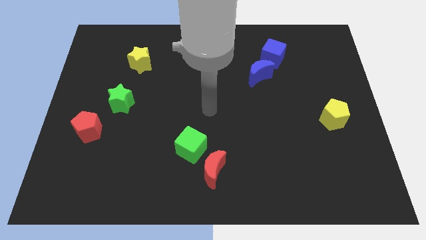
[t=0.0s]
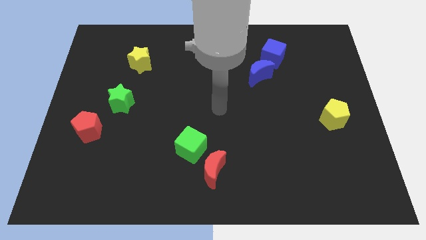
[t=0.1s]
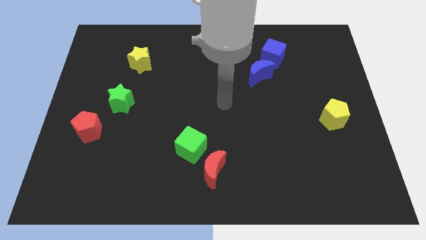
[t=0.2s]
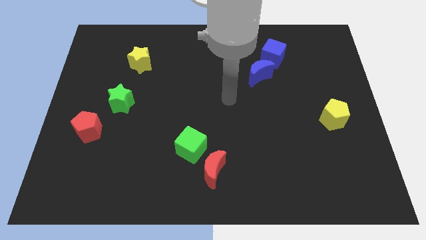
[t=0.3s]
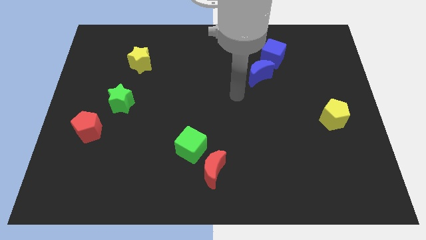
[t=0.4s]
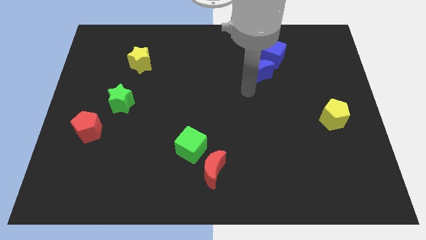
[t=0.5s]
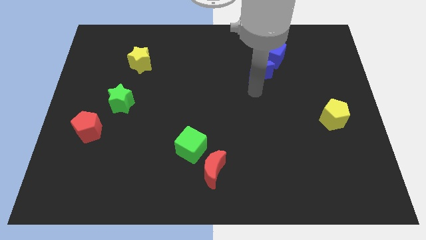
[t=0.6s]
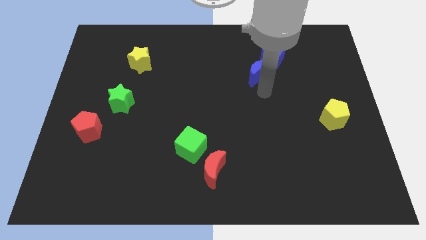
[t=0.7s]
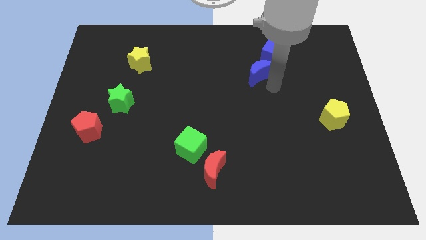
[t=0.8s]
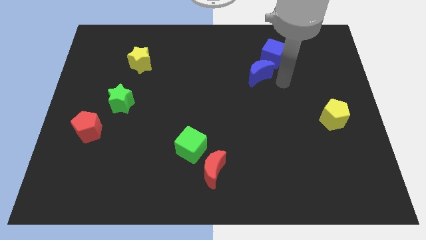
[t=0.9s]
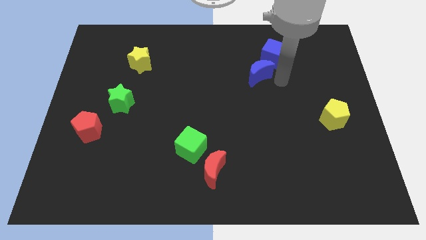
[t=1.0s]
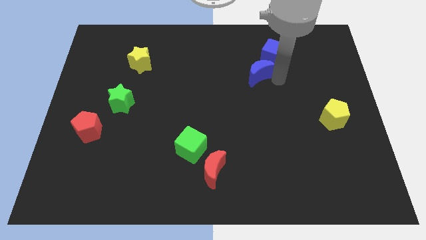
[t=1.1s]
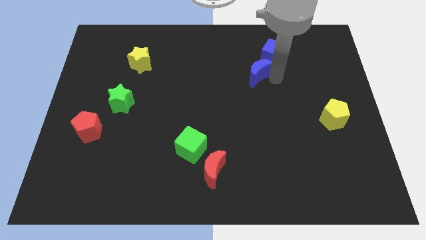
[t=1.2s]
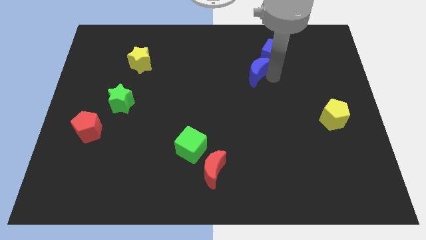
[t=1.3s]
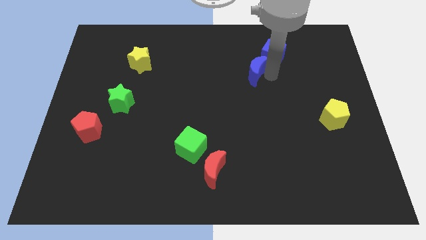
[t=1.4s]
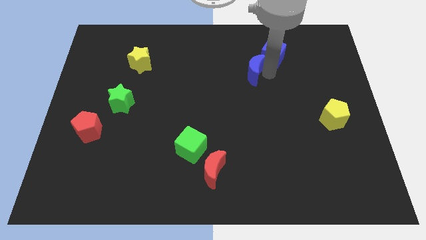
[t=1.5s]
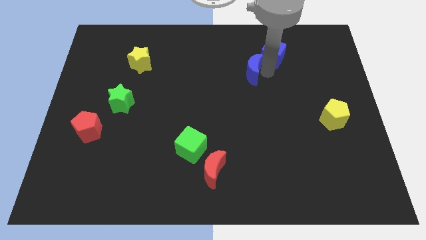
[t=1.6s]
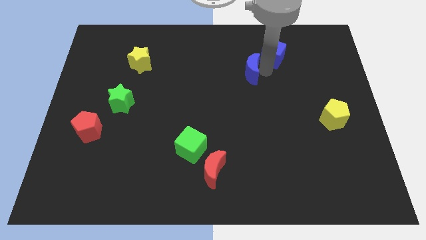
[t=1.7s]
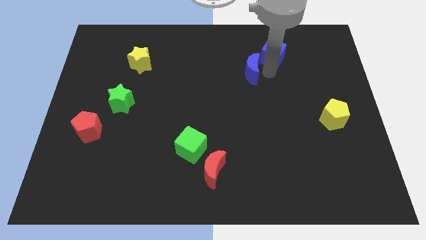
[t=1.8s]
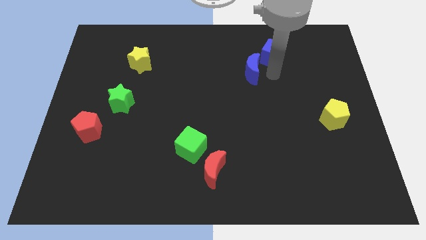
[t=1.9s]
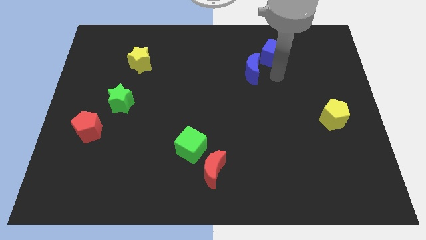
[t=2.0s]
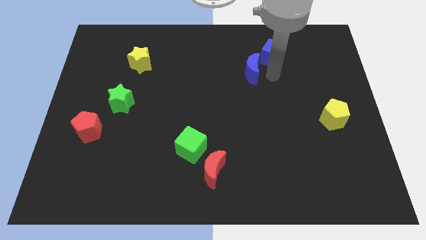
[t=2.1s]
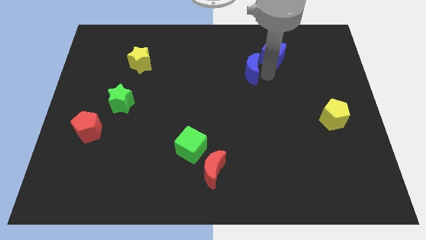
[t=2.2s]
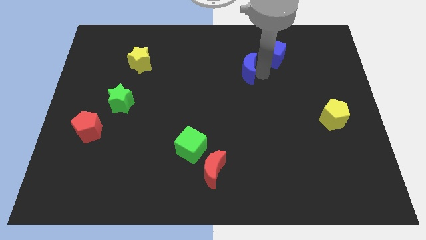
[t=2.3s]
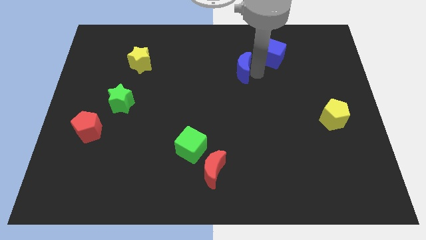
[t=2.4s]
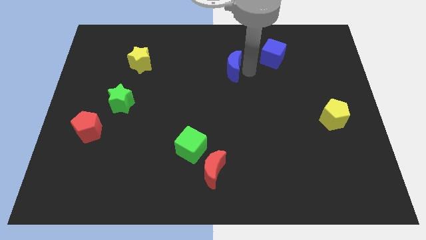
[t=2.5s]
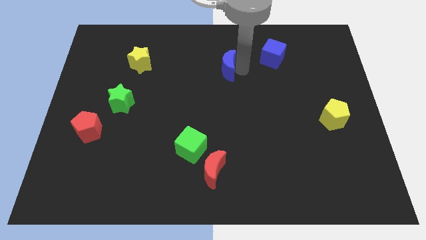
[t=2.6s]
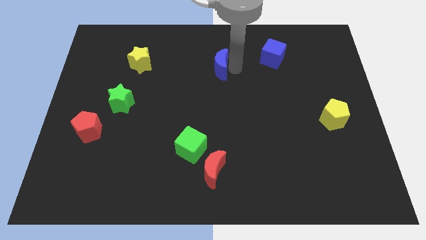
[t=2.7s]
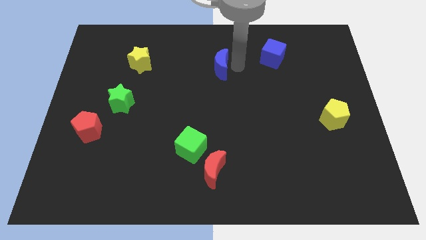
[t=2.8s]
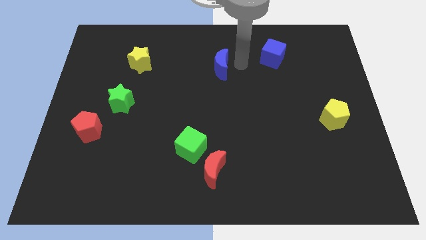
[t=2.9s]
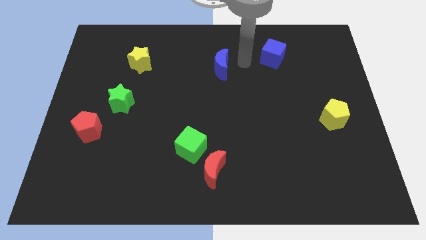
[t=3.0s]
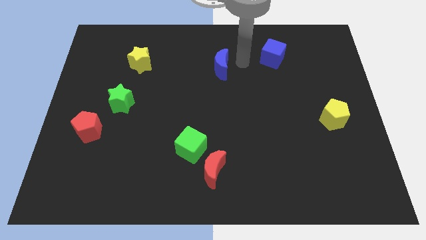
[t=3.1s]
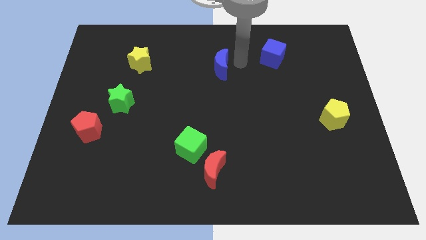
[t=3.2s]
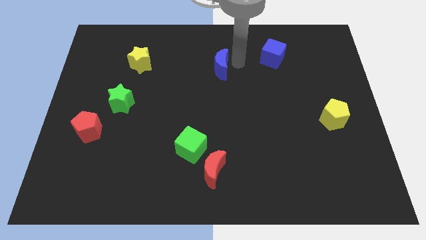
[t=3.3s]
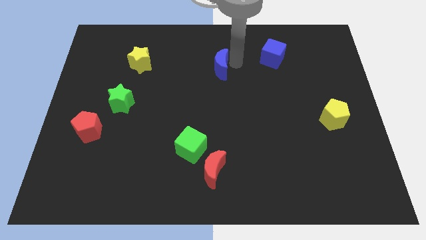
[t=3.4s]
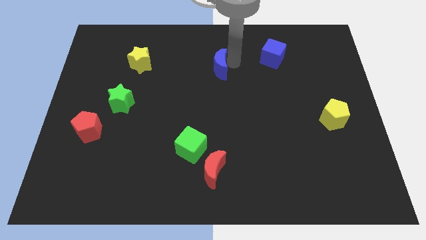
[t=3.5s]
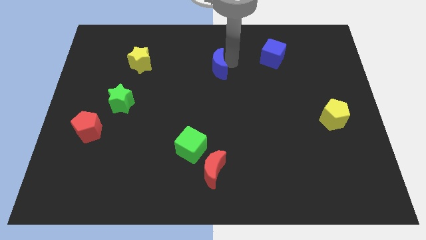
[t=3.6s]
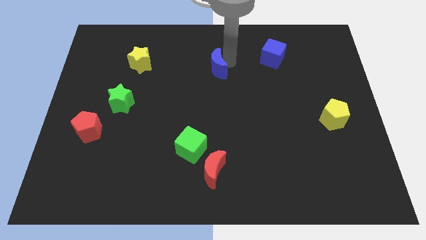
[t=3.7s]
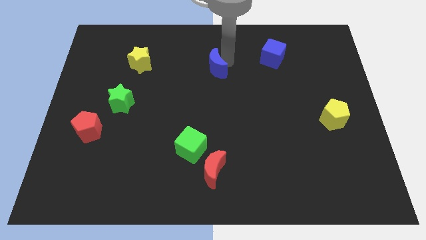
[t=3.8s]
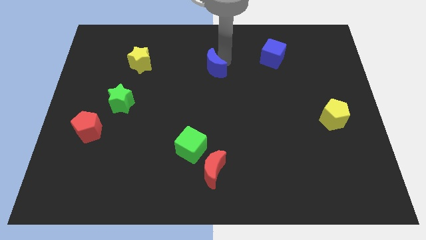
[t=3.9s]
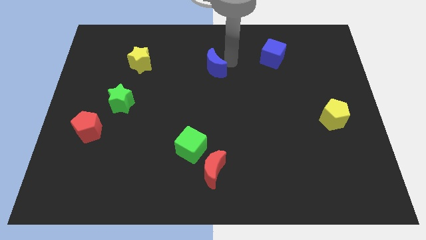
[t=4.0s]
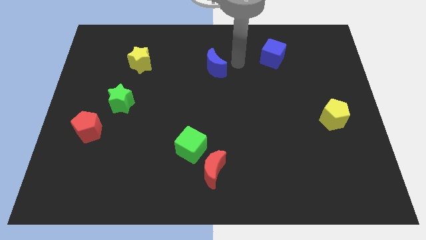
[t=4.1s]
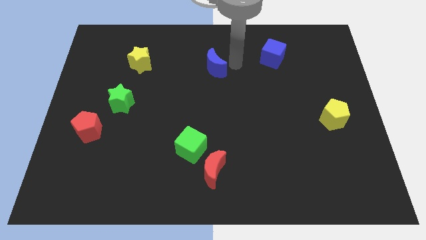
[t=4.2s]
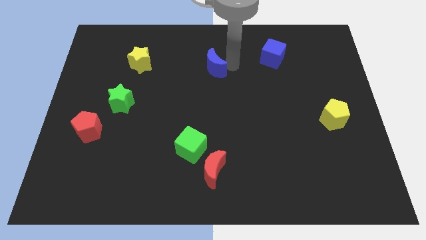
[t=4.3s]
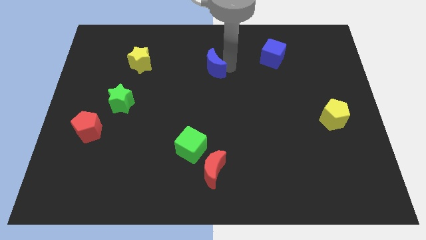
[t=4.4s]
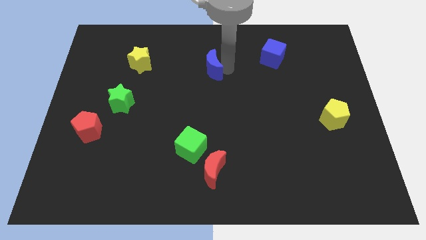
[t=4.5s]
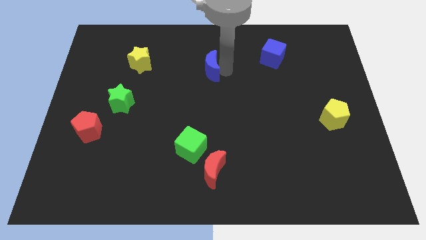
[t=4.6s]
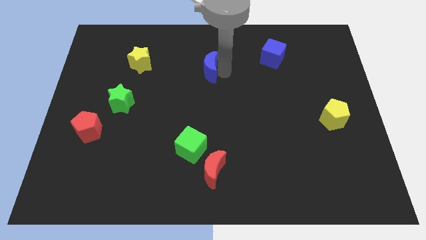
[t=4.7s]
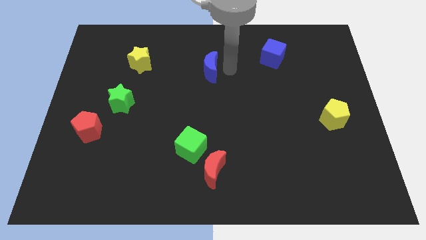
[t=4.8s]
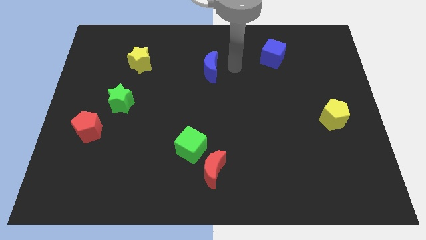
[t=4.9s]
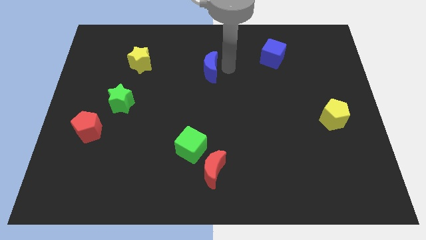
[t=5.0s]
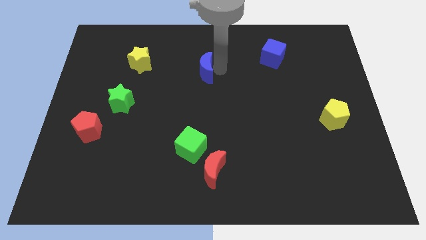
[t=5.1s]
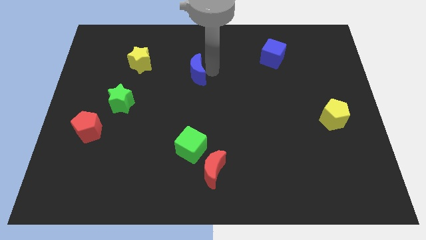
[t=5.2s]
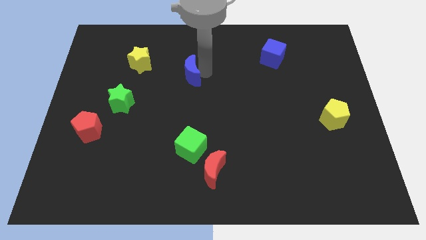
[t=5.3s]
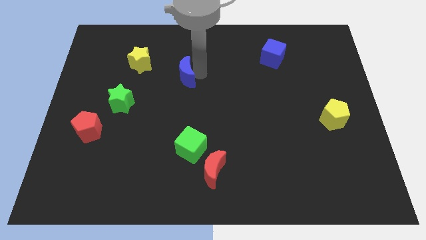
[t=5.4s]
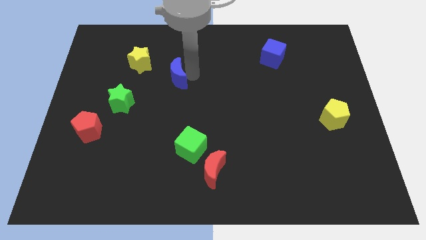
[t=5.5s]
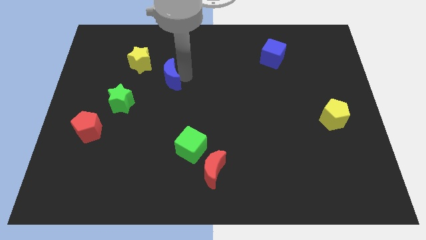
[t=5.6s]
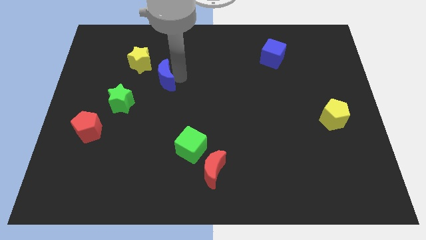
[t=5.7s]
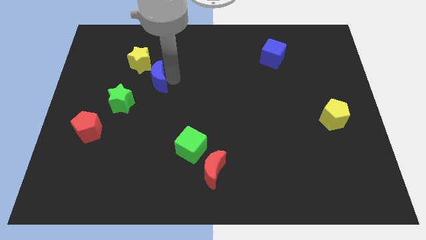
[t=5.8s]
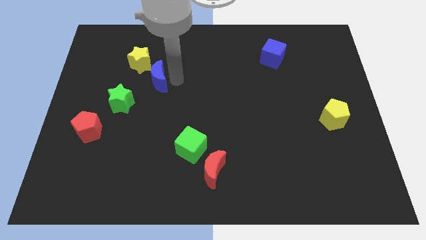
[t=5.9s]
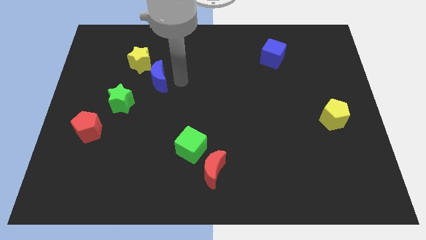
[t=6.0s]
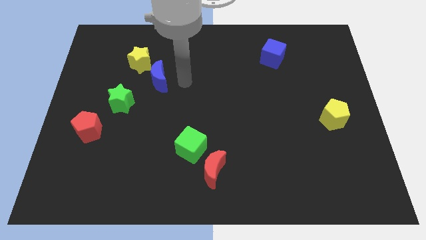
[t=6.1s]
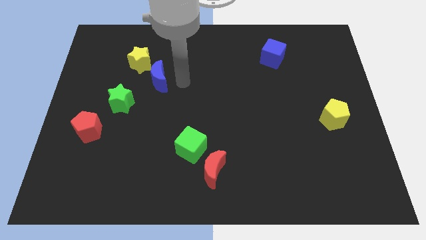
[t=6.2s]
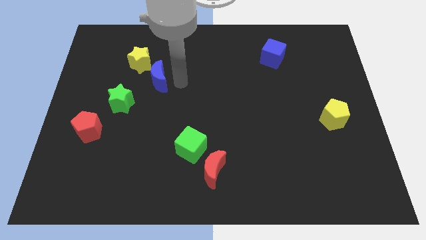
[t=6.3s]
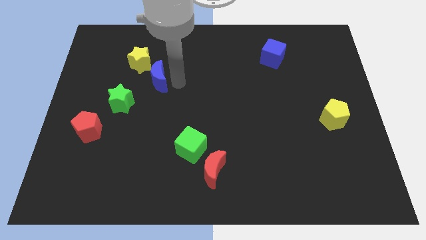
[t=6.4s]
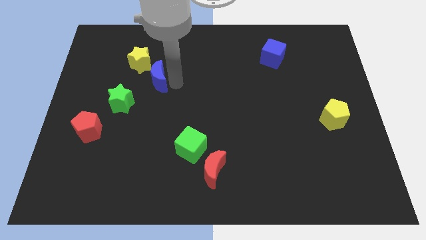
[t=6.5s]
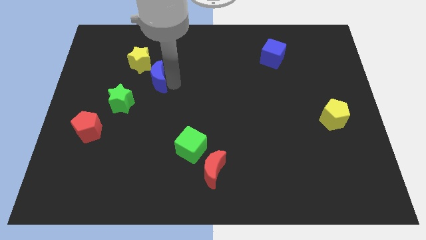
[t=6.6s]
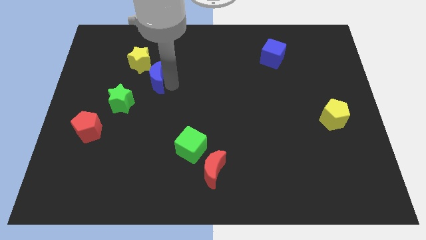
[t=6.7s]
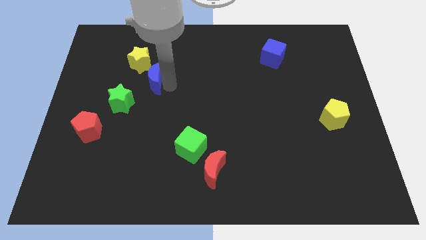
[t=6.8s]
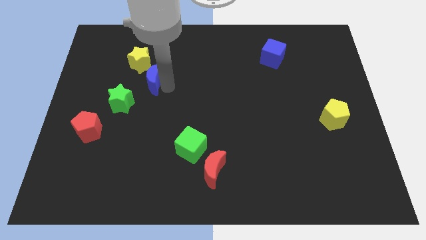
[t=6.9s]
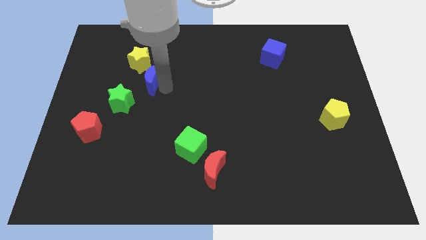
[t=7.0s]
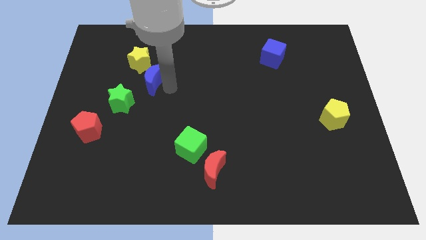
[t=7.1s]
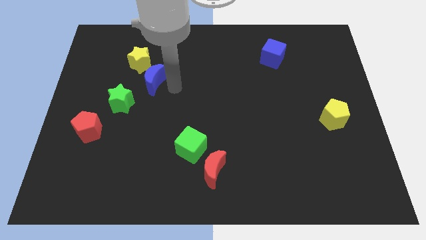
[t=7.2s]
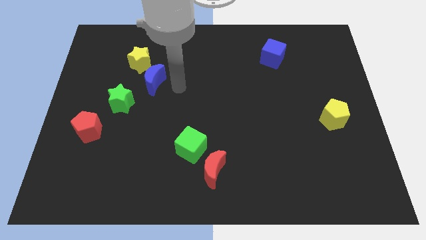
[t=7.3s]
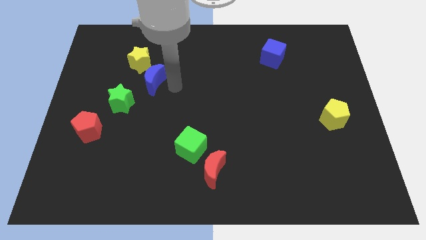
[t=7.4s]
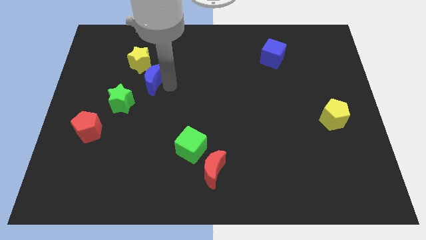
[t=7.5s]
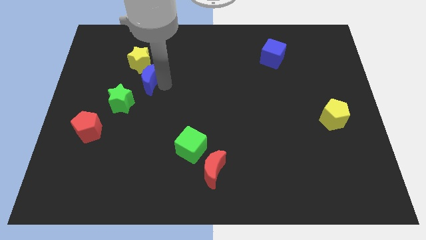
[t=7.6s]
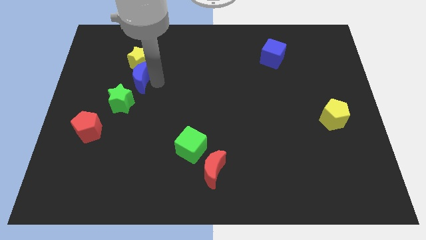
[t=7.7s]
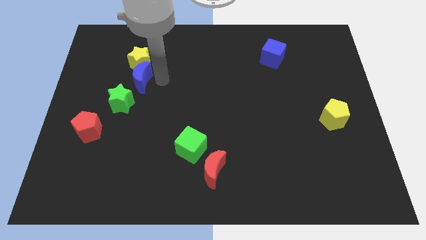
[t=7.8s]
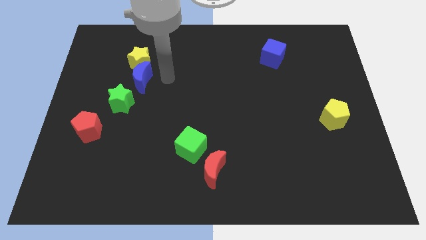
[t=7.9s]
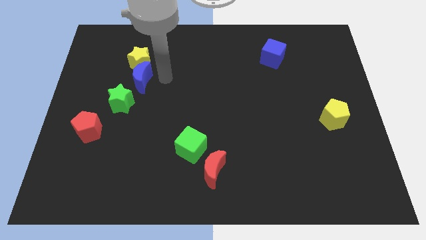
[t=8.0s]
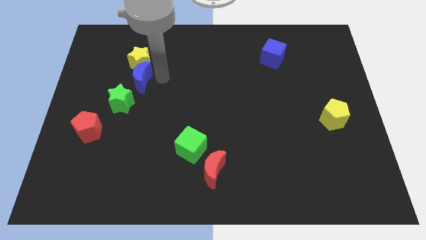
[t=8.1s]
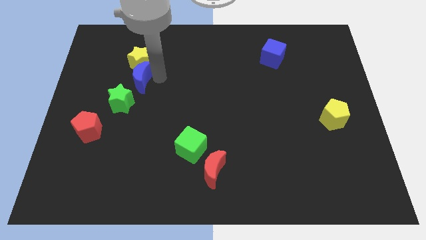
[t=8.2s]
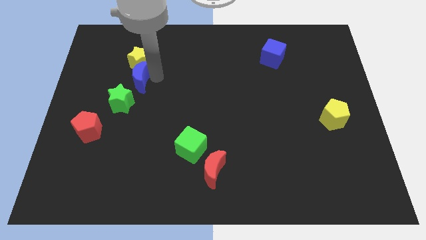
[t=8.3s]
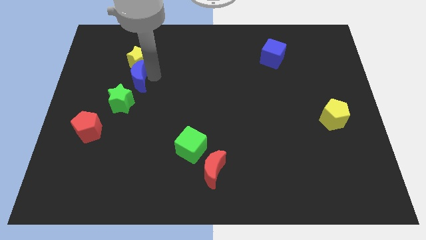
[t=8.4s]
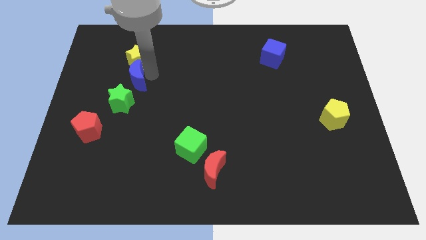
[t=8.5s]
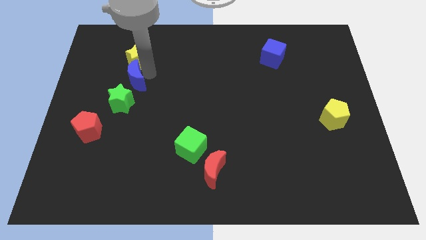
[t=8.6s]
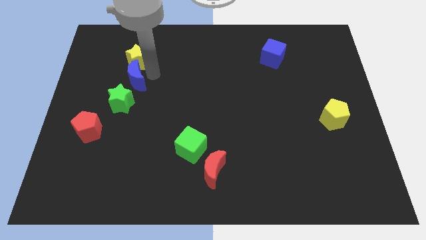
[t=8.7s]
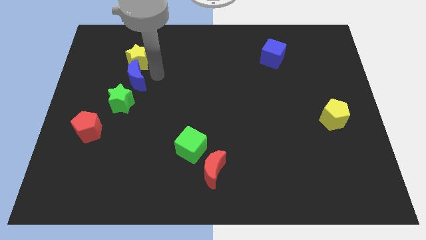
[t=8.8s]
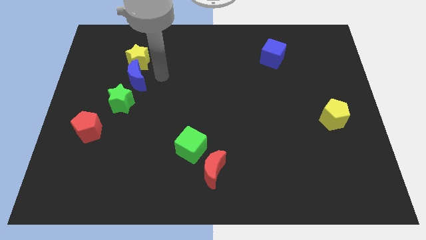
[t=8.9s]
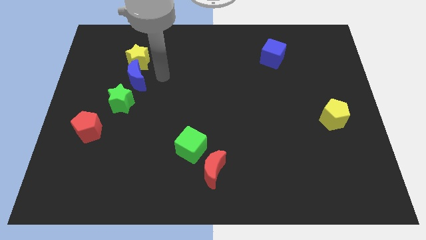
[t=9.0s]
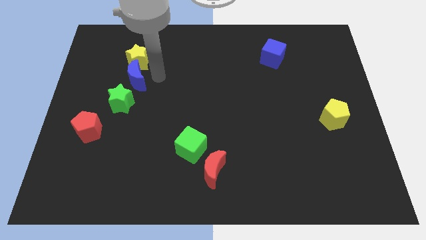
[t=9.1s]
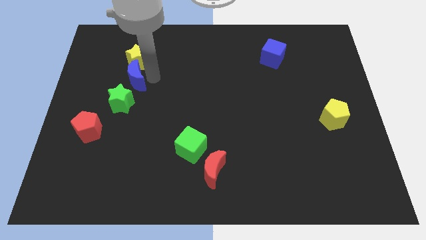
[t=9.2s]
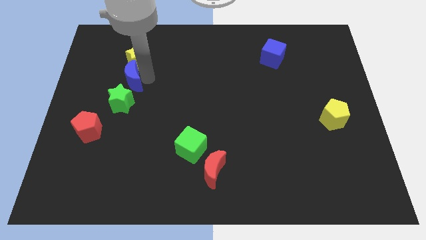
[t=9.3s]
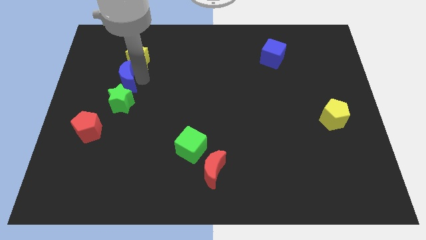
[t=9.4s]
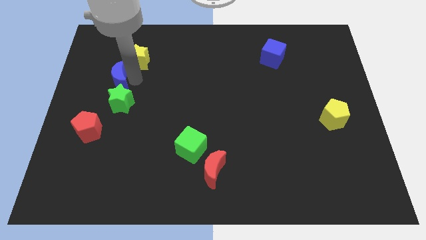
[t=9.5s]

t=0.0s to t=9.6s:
move the blue moon to the top left of the green star
